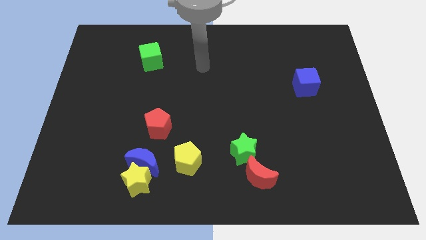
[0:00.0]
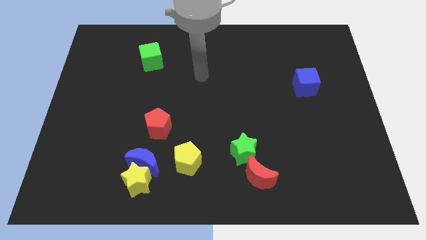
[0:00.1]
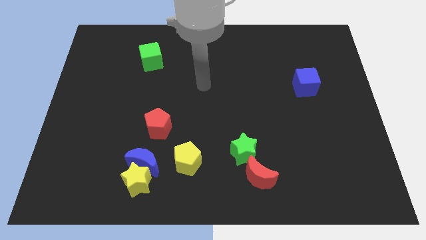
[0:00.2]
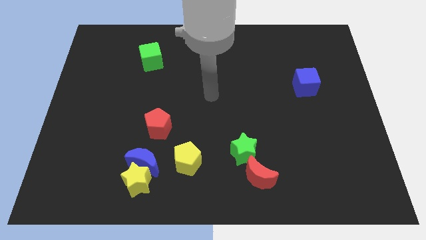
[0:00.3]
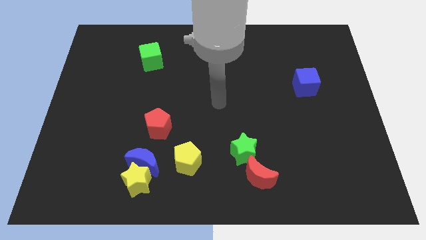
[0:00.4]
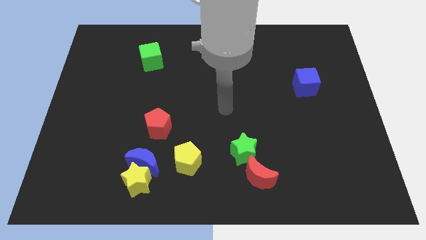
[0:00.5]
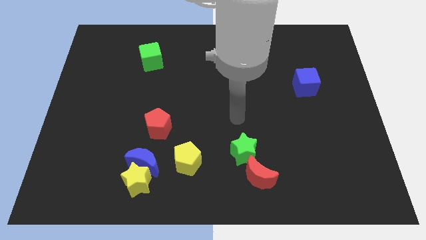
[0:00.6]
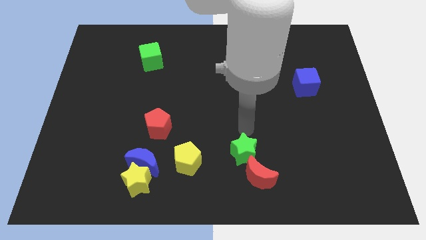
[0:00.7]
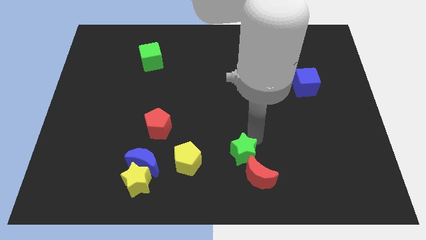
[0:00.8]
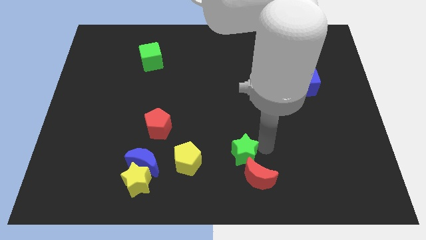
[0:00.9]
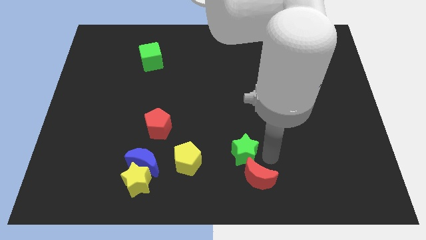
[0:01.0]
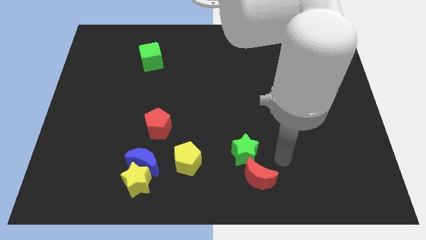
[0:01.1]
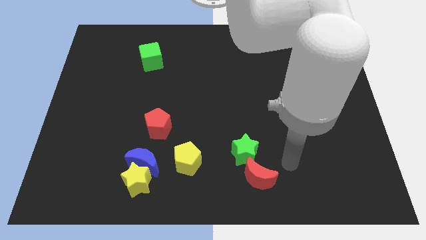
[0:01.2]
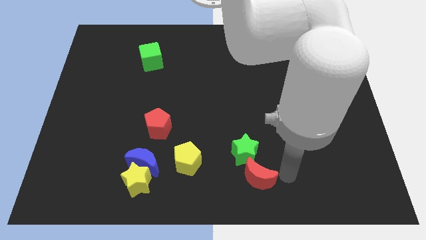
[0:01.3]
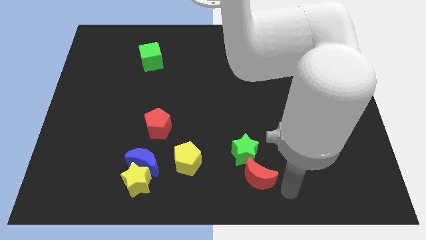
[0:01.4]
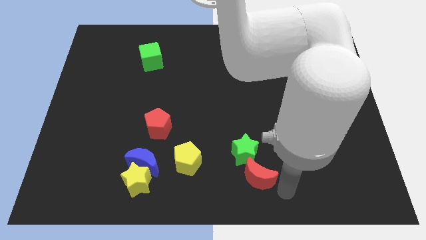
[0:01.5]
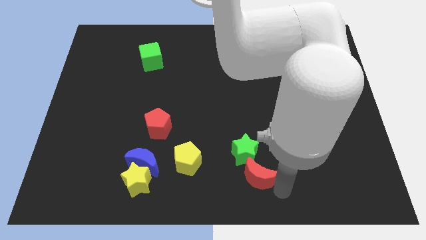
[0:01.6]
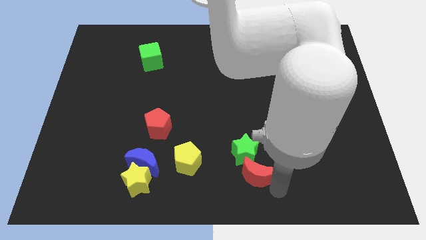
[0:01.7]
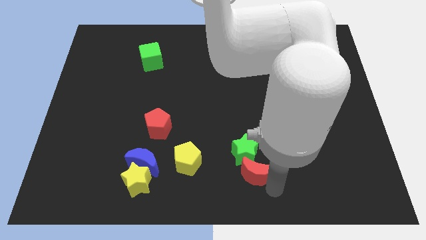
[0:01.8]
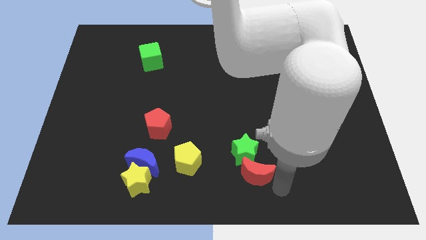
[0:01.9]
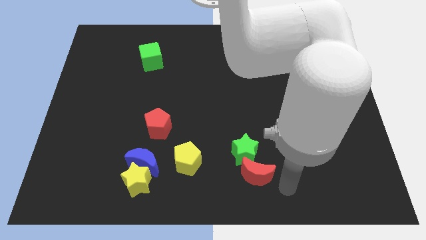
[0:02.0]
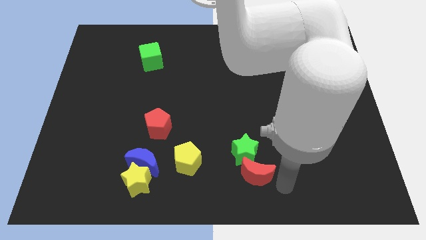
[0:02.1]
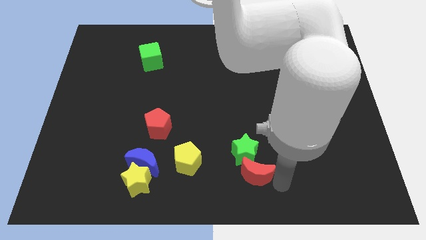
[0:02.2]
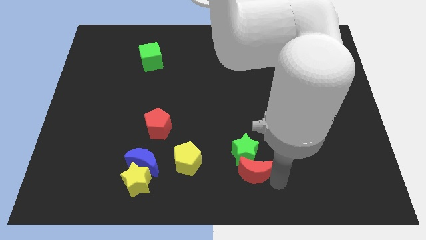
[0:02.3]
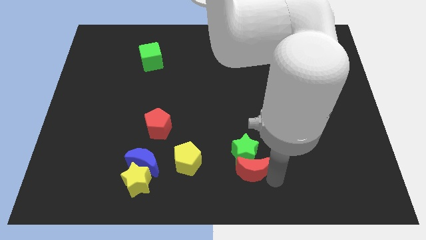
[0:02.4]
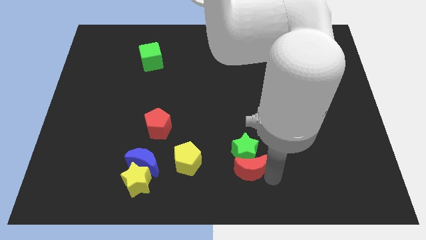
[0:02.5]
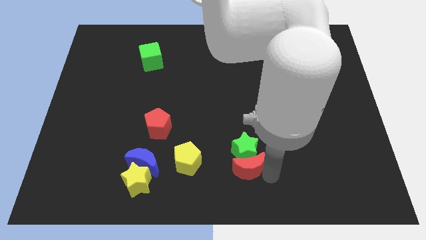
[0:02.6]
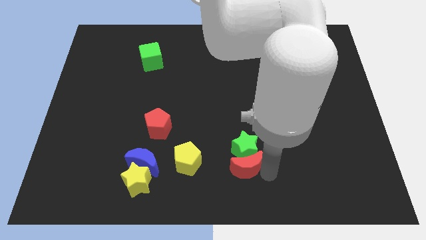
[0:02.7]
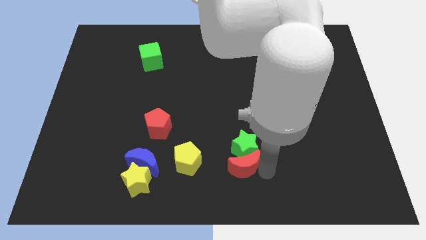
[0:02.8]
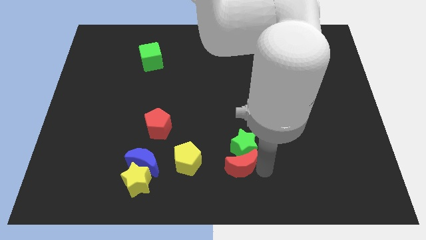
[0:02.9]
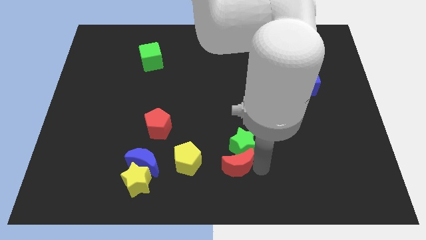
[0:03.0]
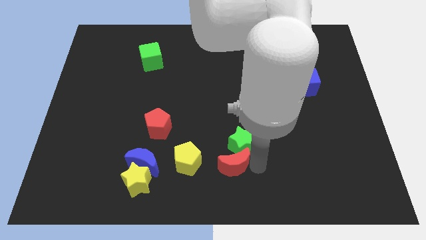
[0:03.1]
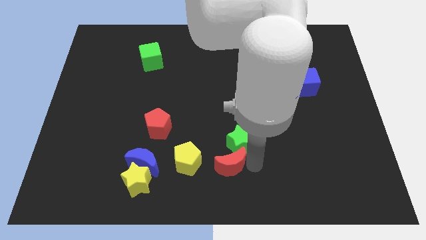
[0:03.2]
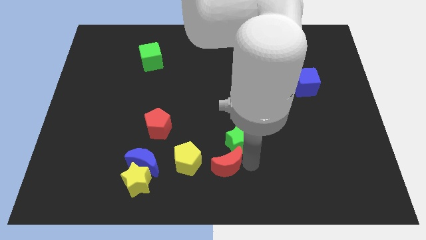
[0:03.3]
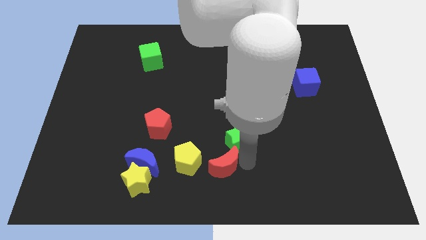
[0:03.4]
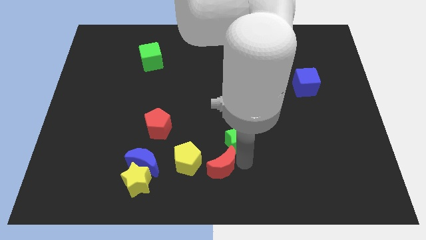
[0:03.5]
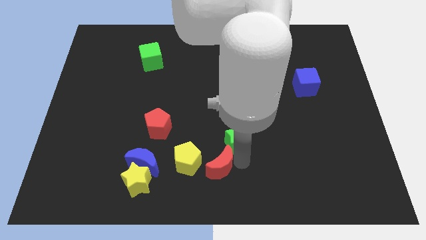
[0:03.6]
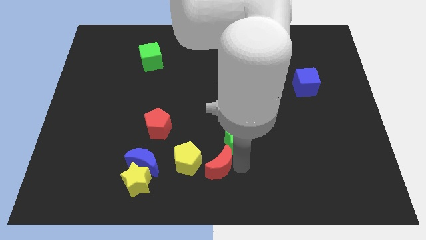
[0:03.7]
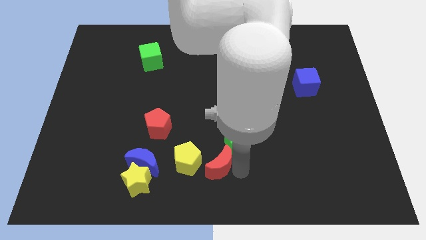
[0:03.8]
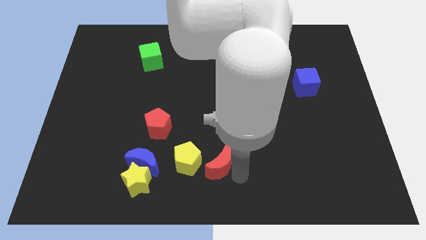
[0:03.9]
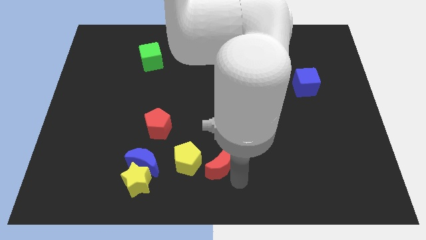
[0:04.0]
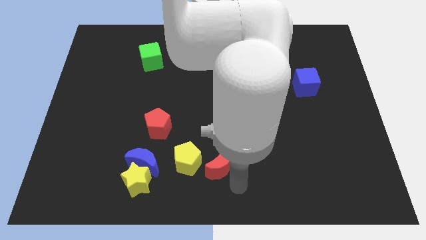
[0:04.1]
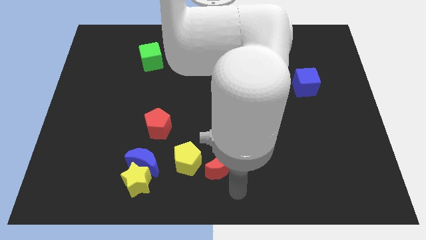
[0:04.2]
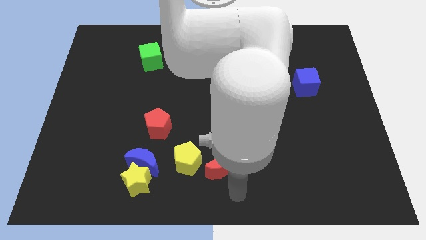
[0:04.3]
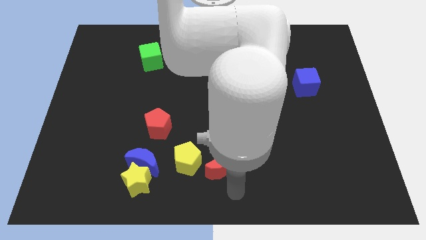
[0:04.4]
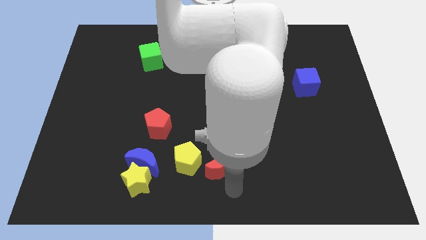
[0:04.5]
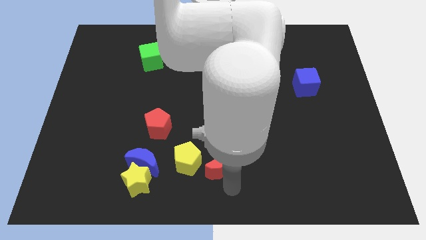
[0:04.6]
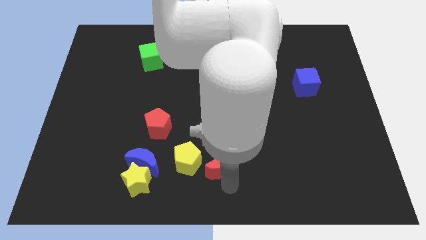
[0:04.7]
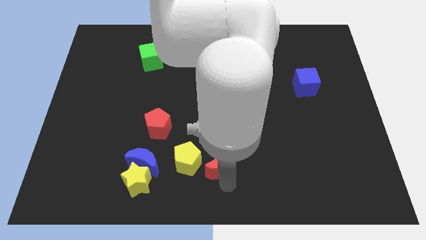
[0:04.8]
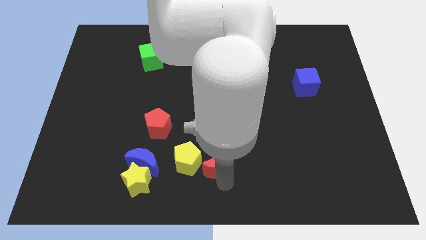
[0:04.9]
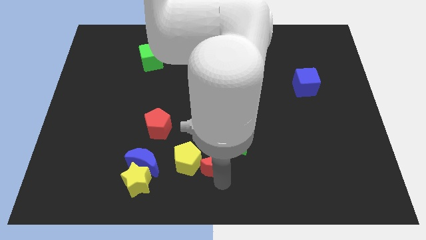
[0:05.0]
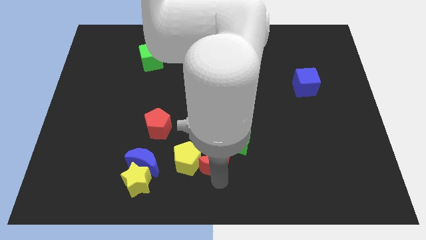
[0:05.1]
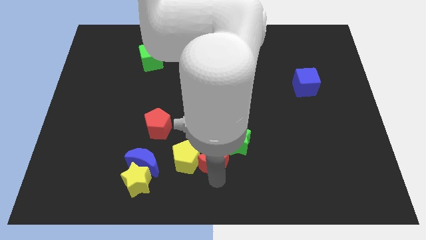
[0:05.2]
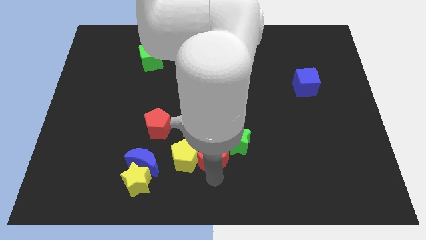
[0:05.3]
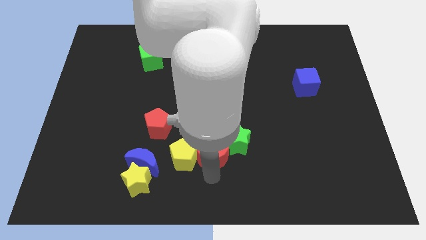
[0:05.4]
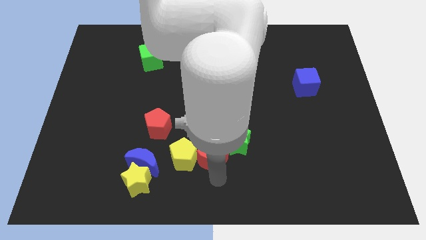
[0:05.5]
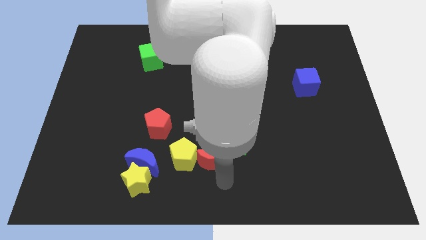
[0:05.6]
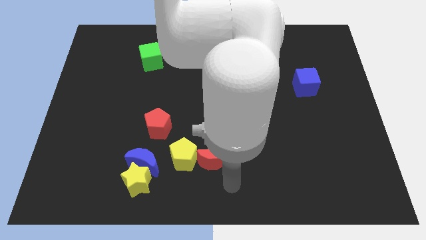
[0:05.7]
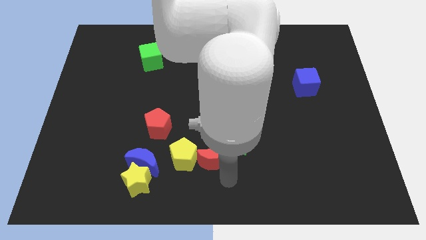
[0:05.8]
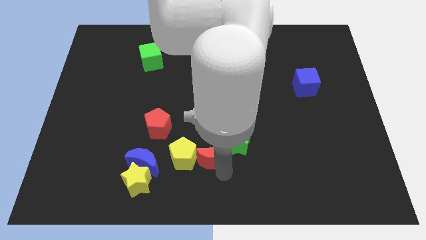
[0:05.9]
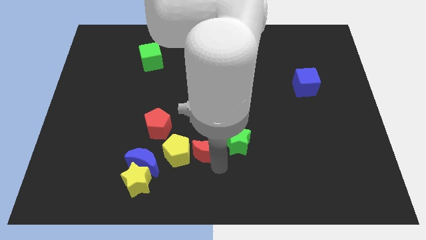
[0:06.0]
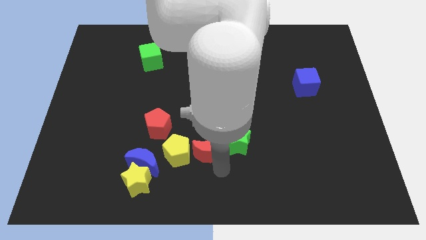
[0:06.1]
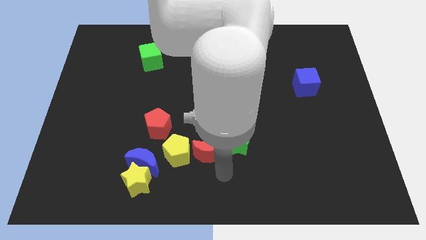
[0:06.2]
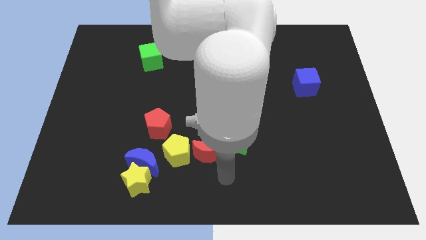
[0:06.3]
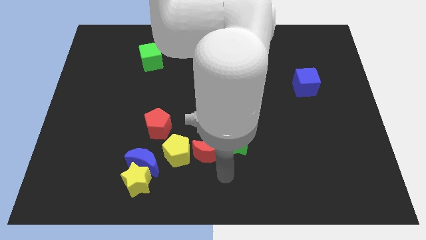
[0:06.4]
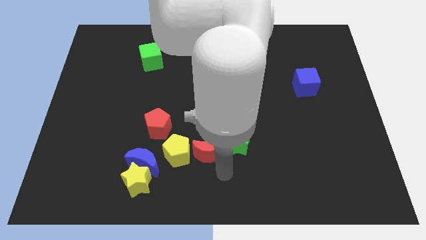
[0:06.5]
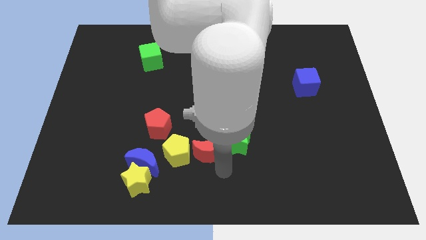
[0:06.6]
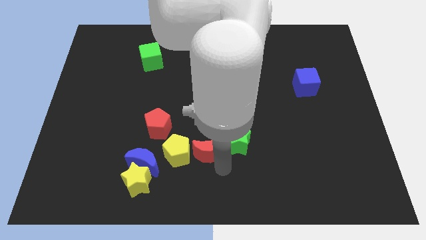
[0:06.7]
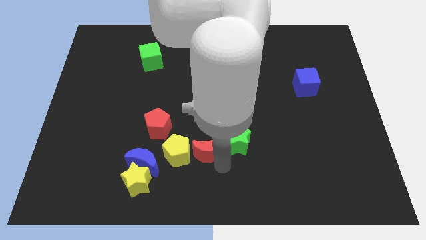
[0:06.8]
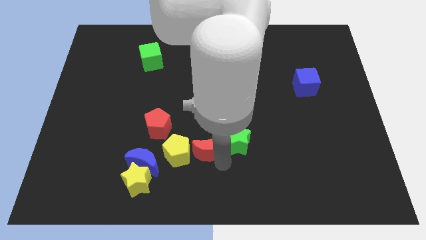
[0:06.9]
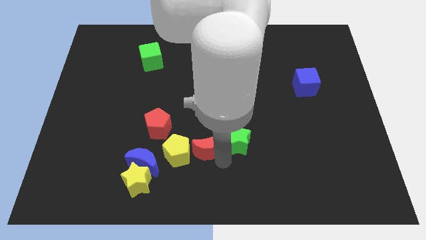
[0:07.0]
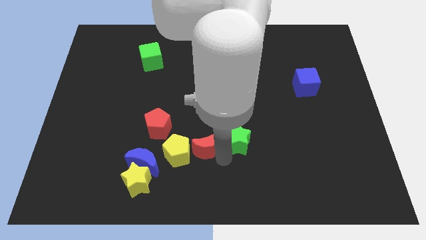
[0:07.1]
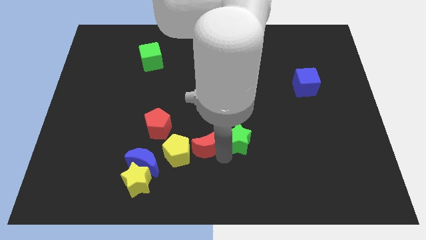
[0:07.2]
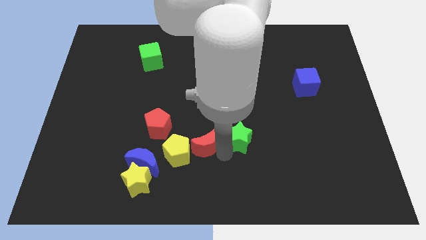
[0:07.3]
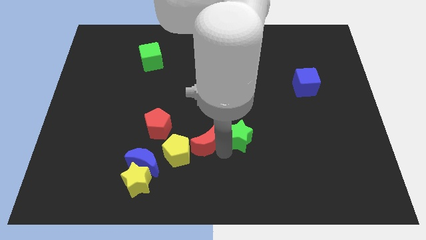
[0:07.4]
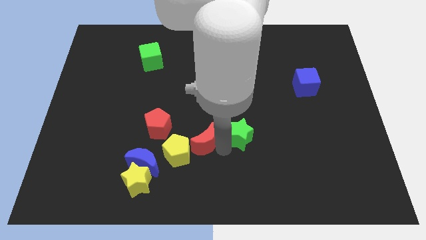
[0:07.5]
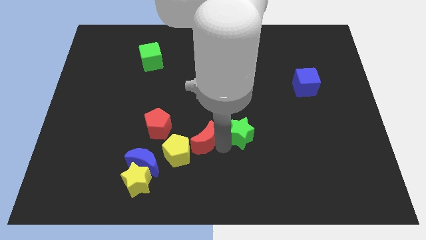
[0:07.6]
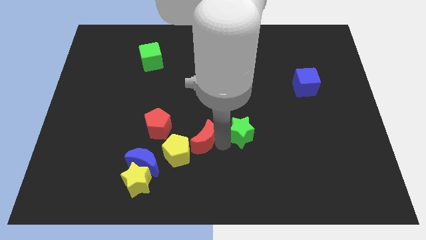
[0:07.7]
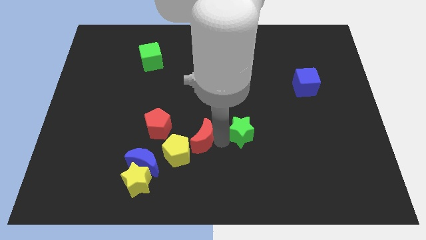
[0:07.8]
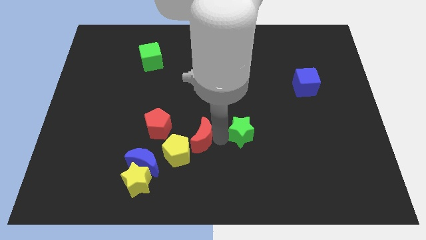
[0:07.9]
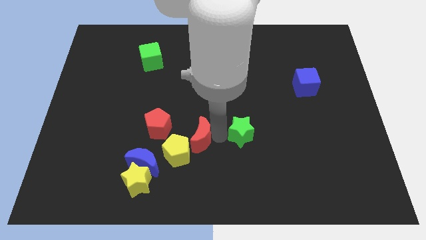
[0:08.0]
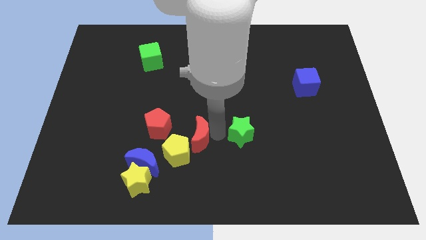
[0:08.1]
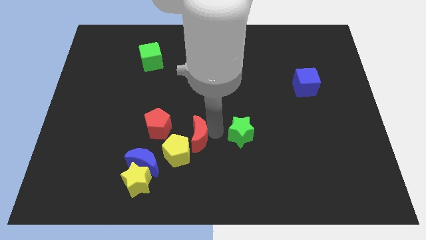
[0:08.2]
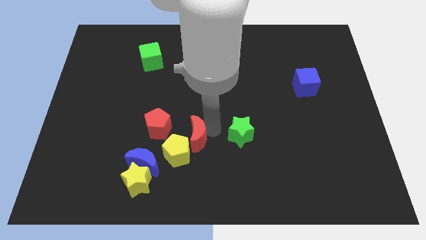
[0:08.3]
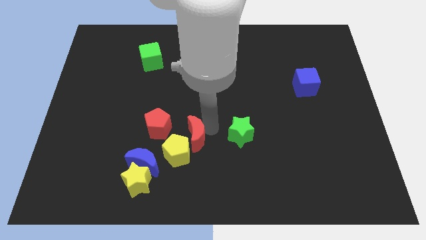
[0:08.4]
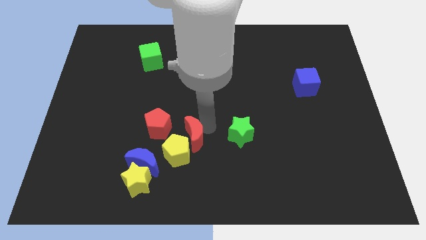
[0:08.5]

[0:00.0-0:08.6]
push the red moon to the top right side of the blue moon
